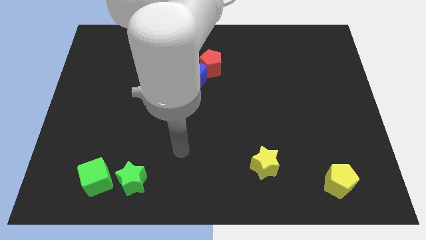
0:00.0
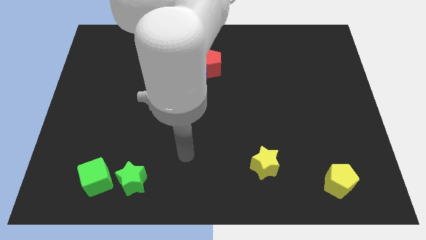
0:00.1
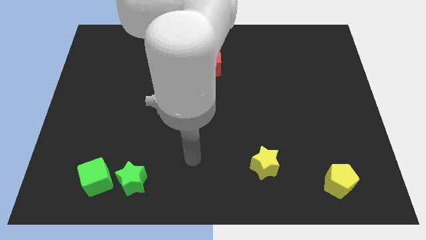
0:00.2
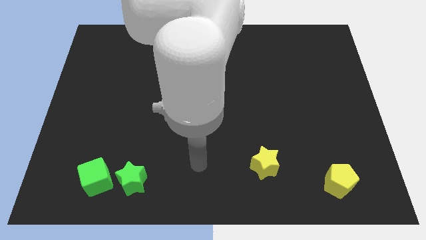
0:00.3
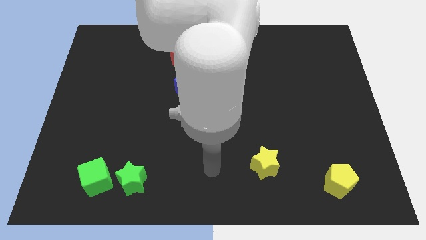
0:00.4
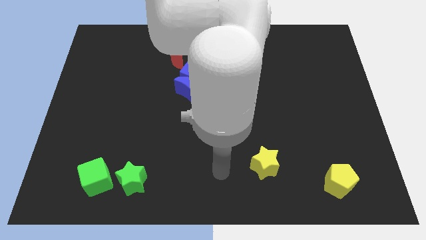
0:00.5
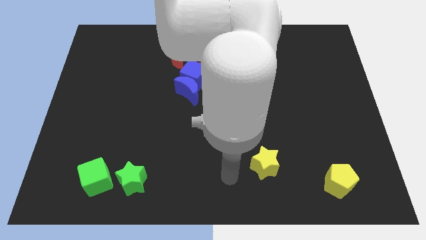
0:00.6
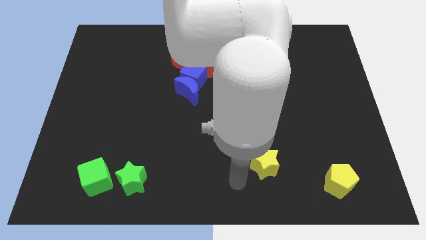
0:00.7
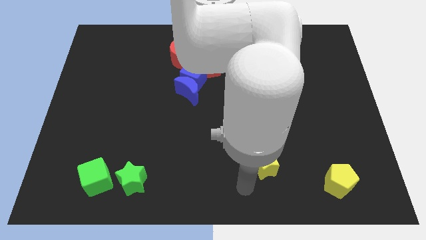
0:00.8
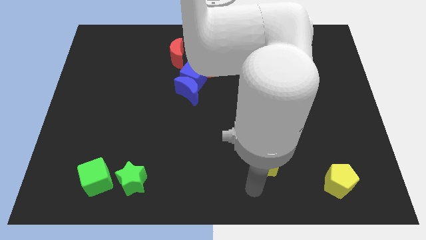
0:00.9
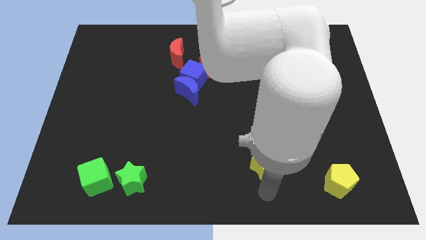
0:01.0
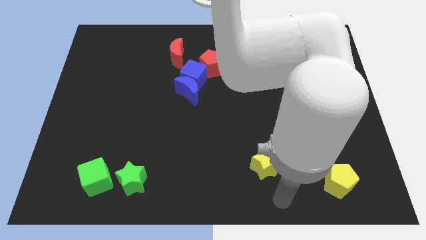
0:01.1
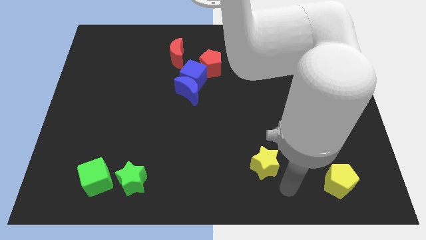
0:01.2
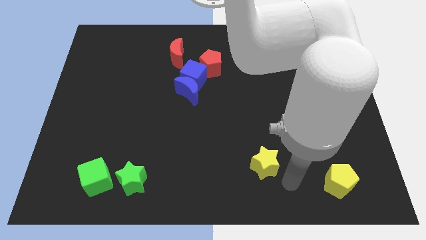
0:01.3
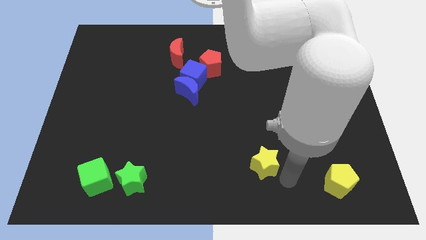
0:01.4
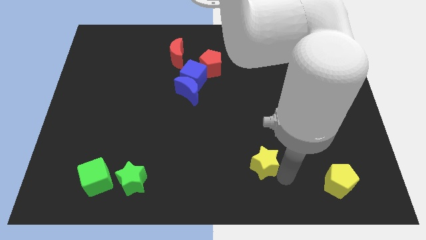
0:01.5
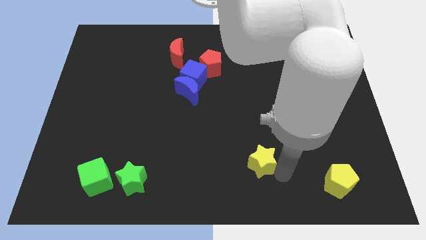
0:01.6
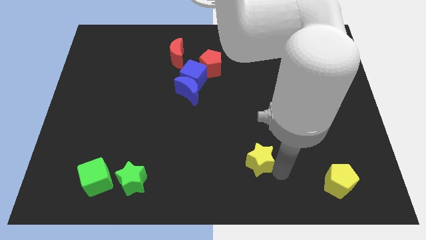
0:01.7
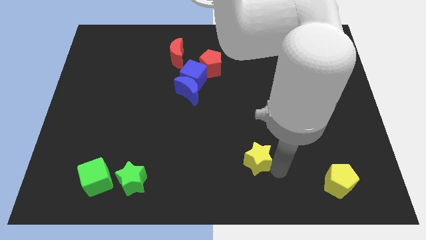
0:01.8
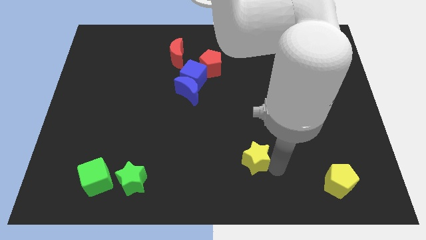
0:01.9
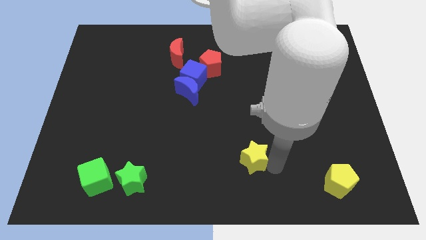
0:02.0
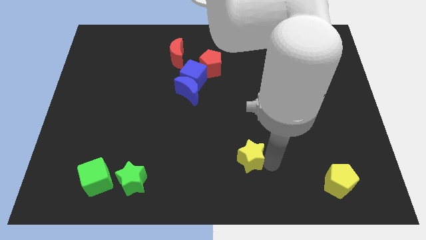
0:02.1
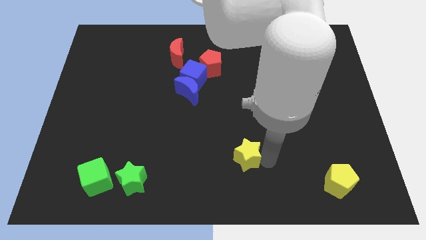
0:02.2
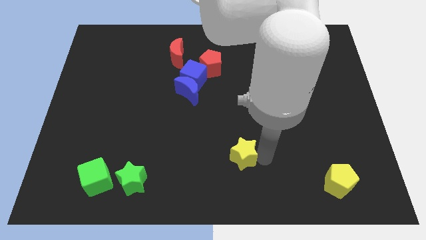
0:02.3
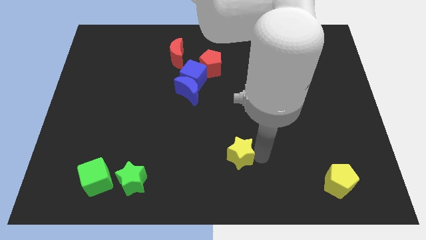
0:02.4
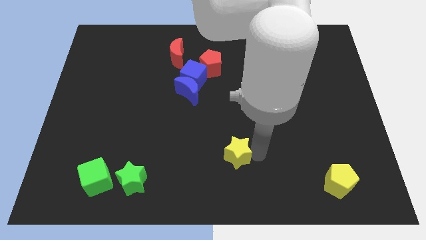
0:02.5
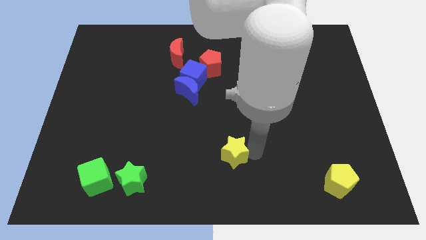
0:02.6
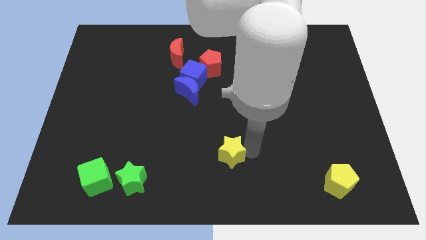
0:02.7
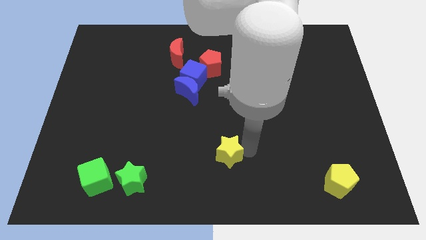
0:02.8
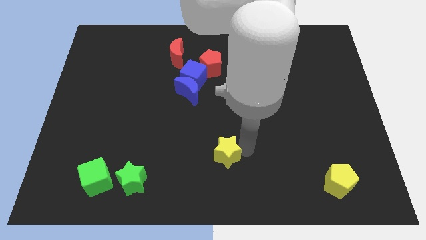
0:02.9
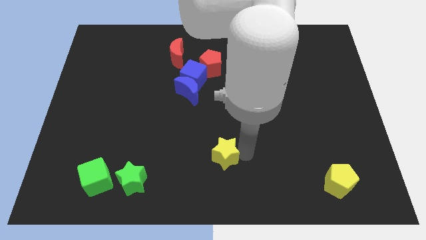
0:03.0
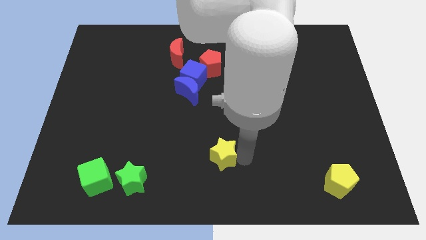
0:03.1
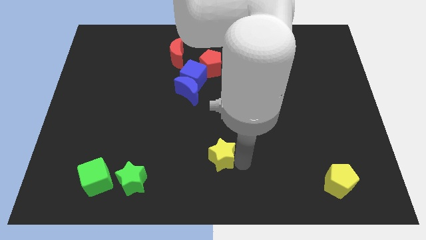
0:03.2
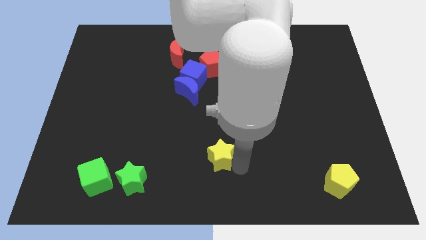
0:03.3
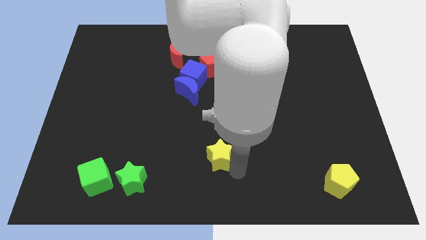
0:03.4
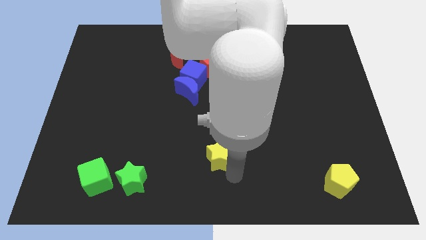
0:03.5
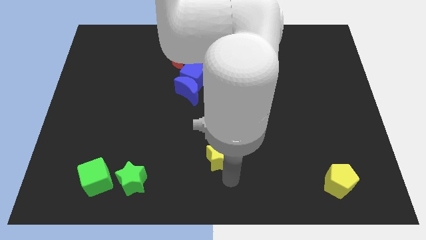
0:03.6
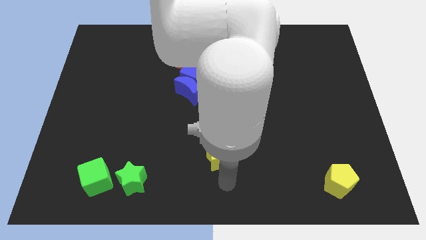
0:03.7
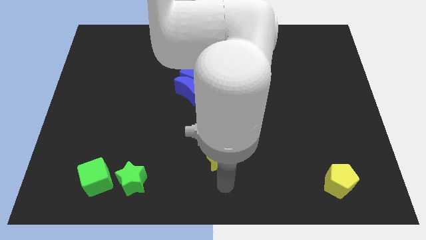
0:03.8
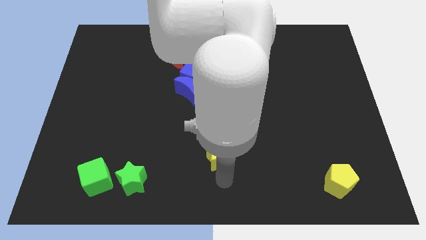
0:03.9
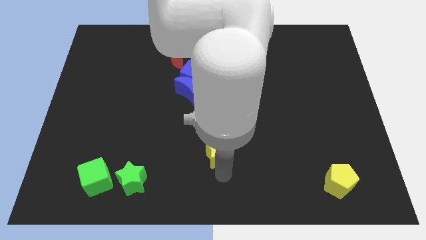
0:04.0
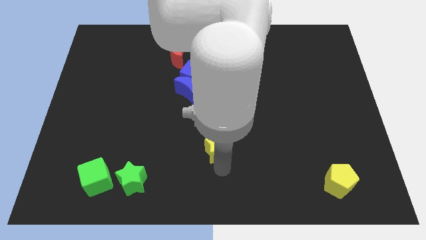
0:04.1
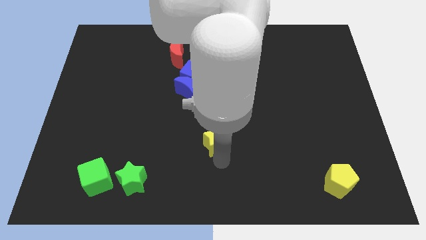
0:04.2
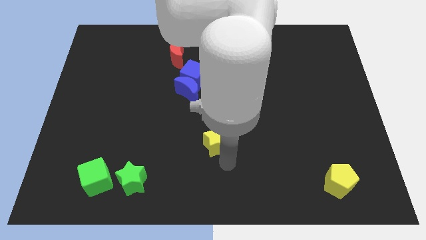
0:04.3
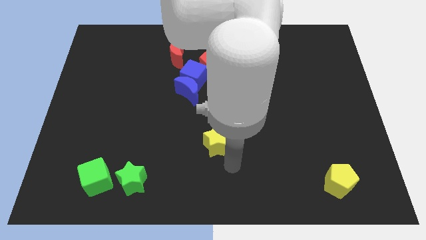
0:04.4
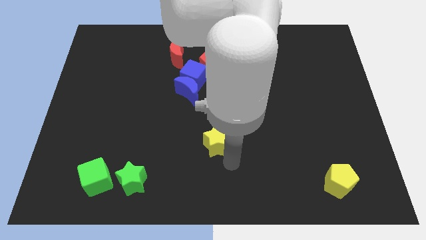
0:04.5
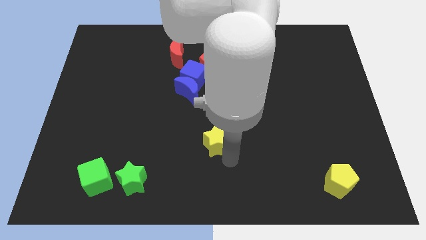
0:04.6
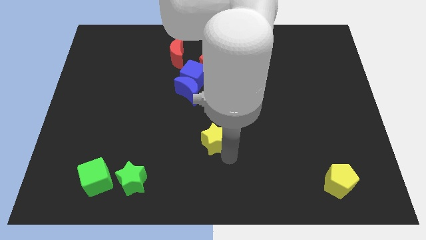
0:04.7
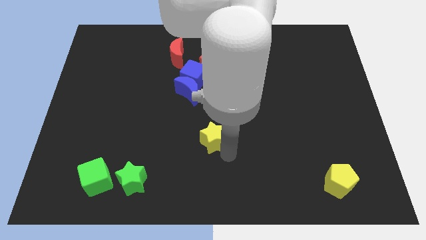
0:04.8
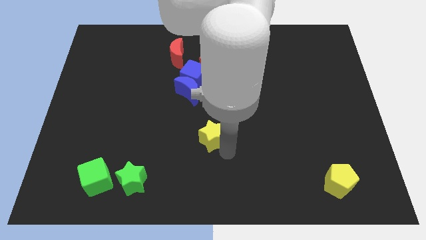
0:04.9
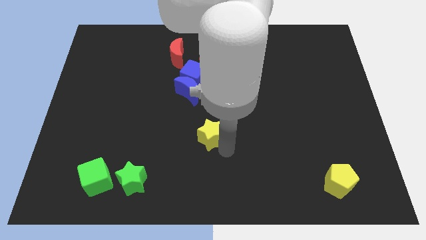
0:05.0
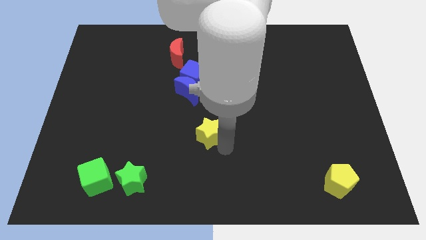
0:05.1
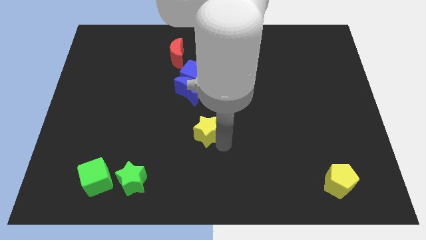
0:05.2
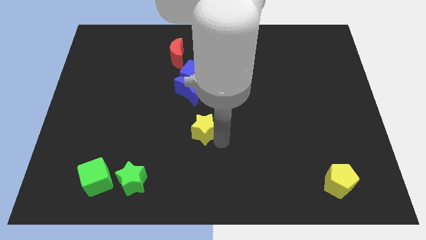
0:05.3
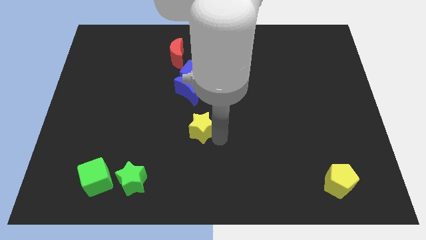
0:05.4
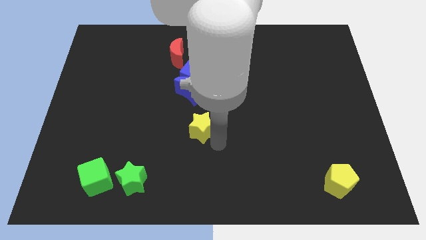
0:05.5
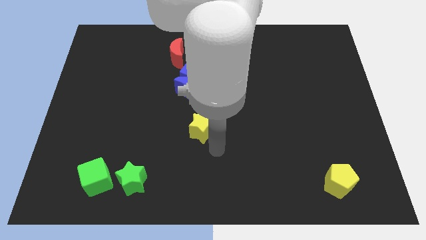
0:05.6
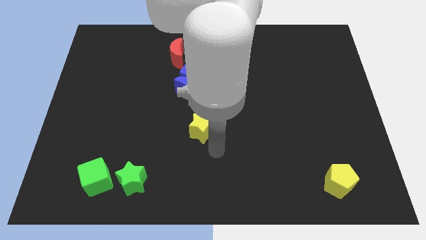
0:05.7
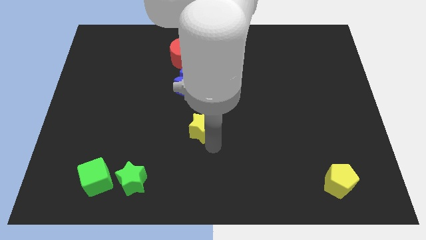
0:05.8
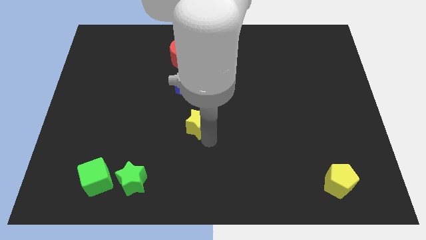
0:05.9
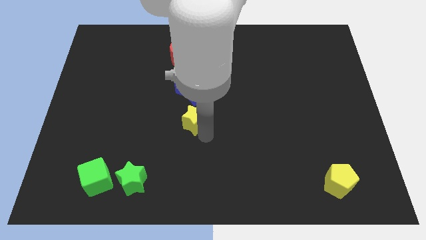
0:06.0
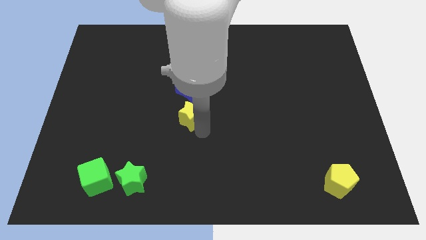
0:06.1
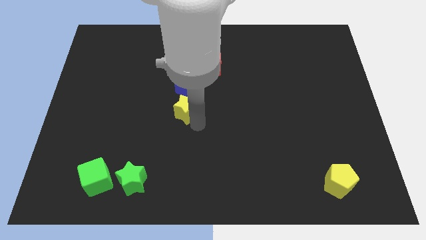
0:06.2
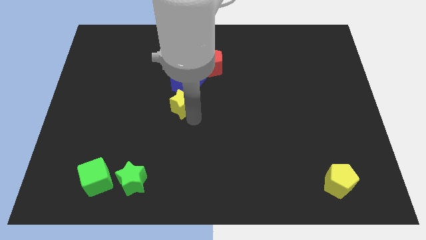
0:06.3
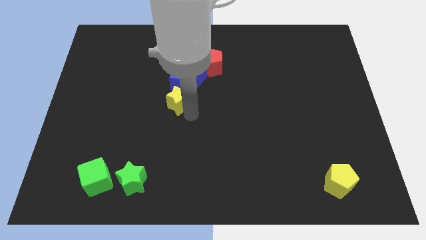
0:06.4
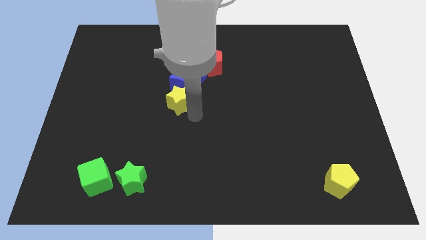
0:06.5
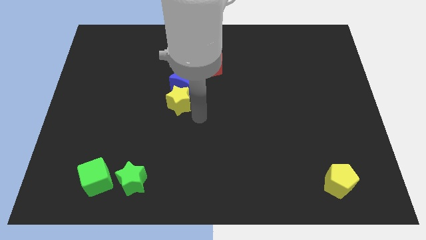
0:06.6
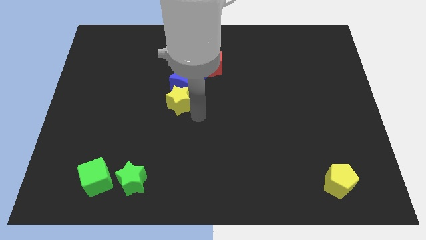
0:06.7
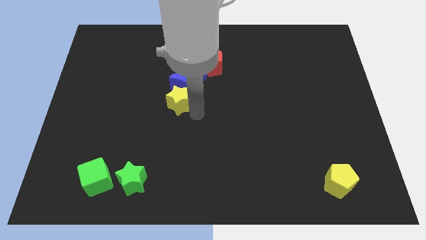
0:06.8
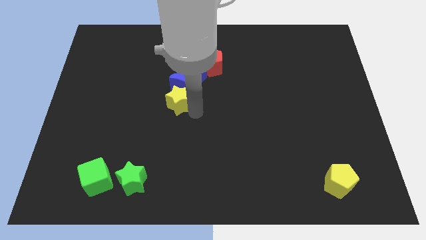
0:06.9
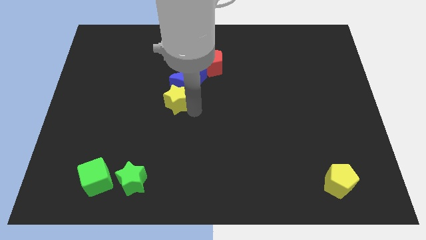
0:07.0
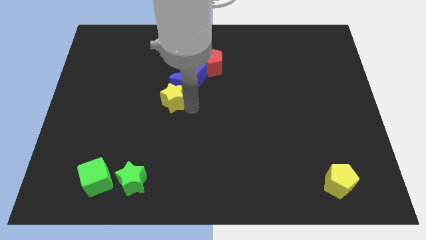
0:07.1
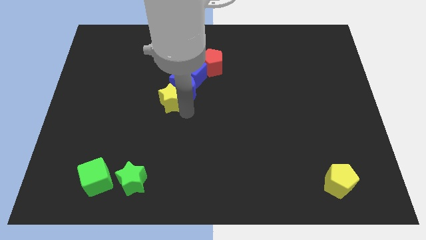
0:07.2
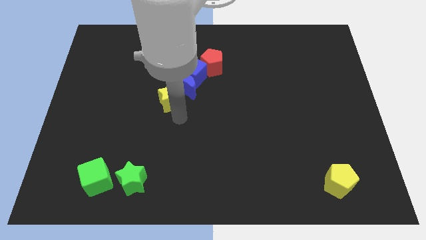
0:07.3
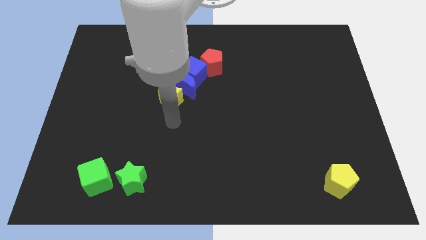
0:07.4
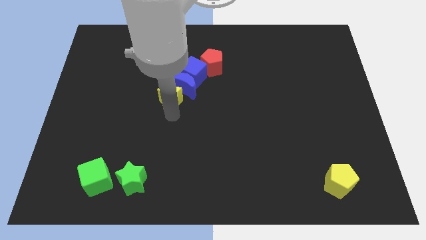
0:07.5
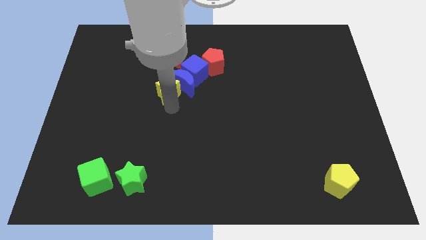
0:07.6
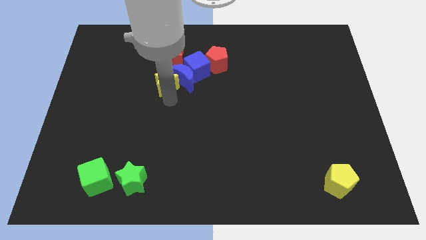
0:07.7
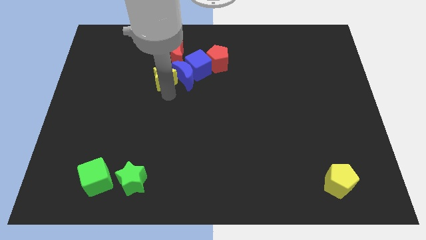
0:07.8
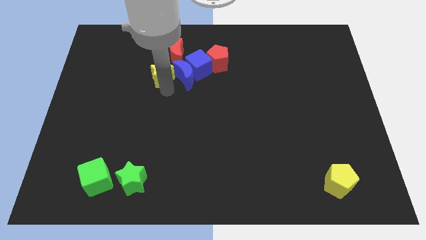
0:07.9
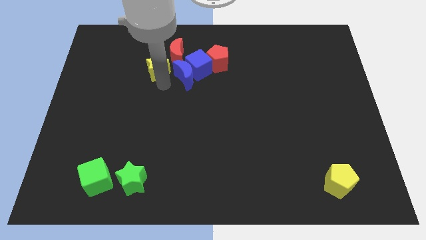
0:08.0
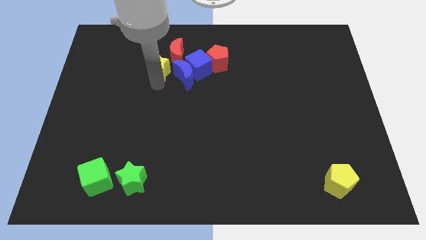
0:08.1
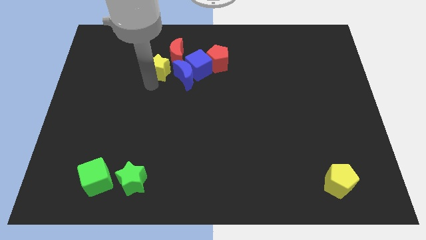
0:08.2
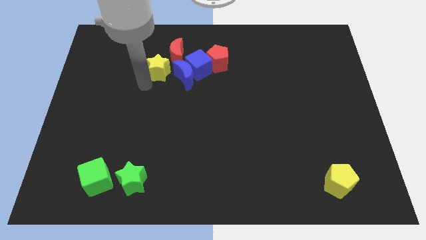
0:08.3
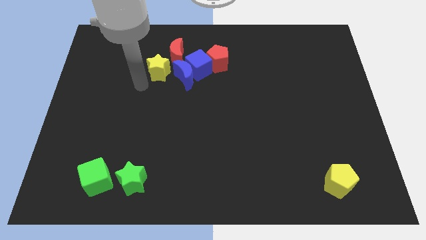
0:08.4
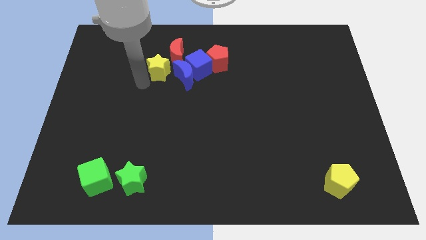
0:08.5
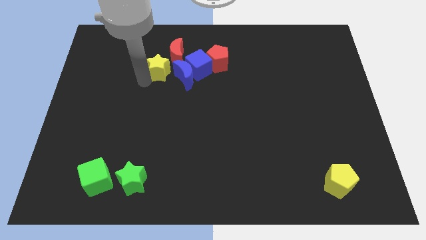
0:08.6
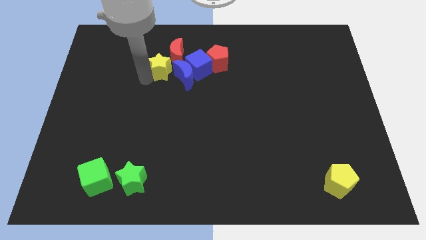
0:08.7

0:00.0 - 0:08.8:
move the yellow star close to the red moon
